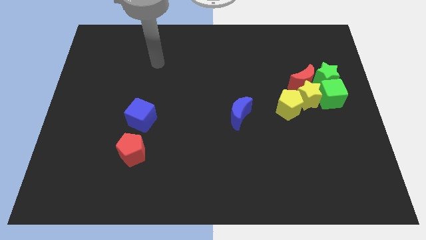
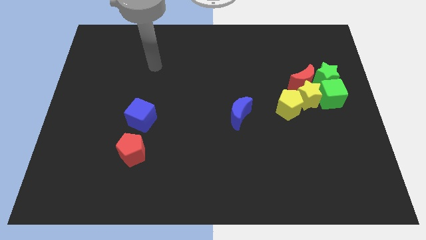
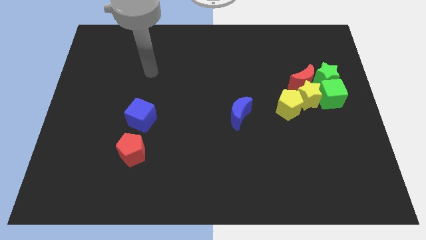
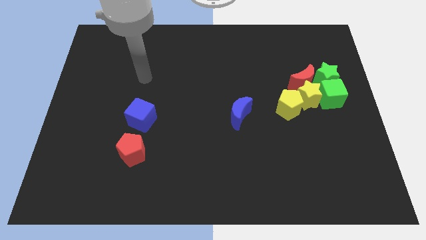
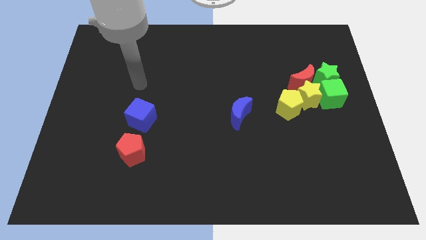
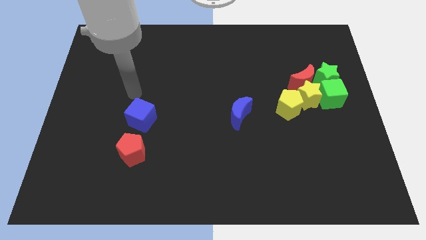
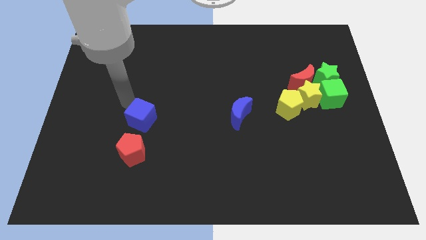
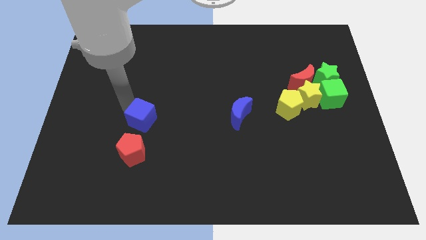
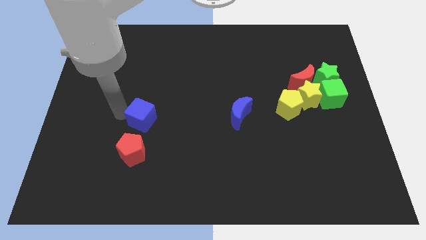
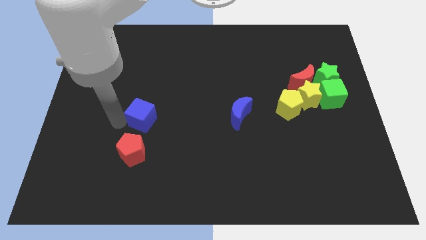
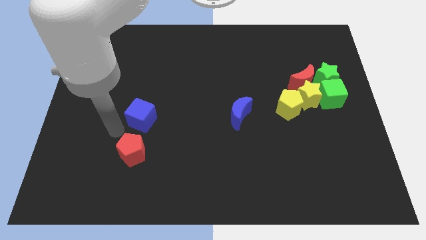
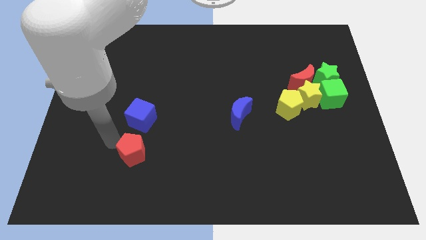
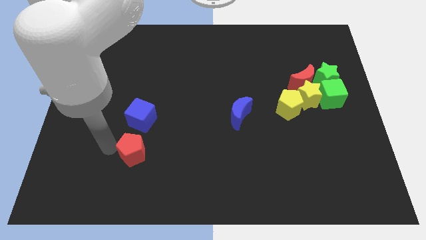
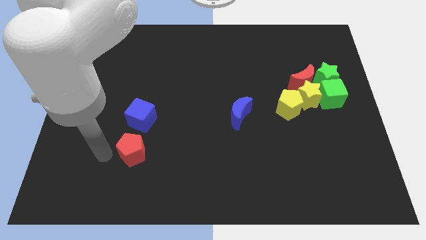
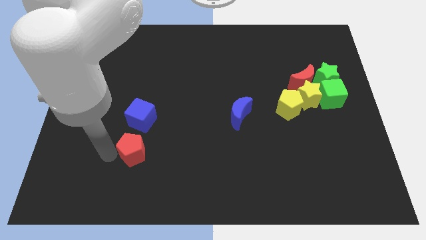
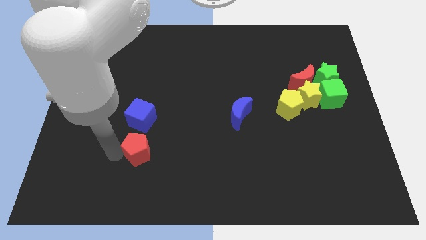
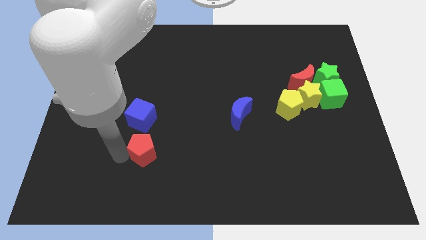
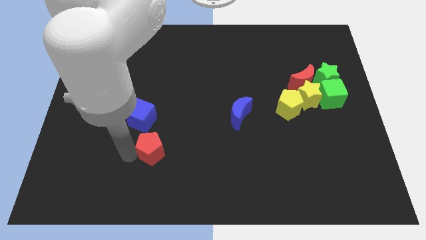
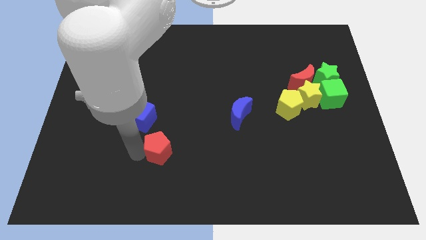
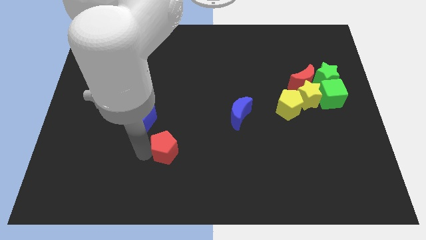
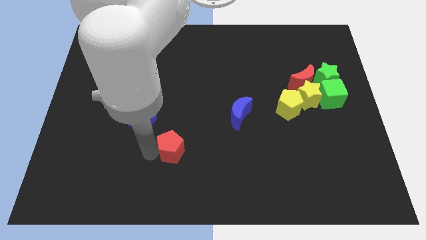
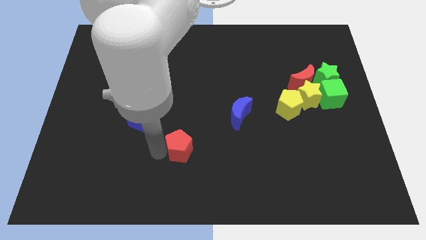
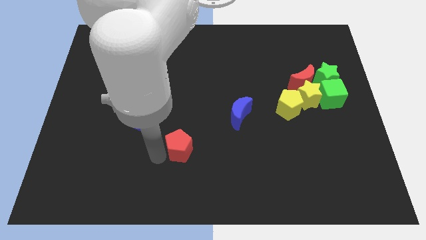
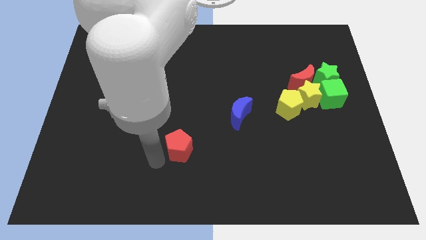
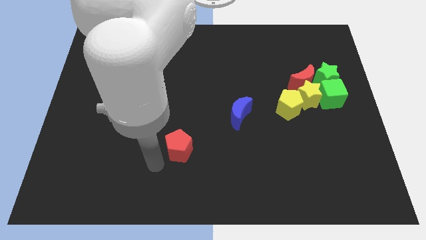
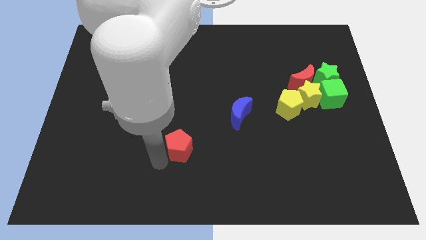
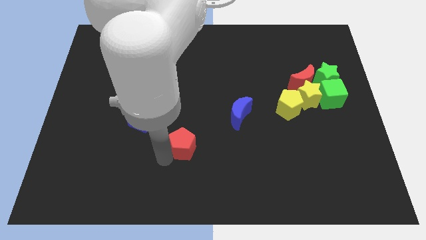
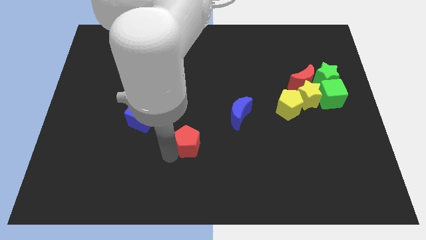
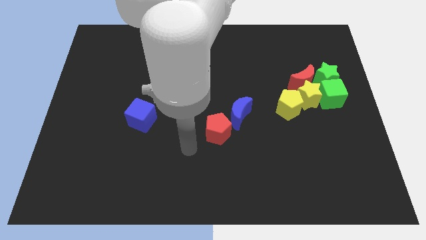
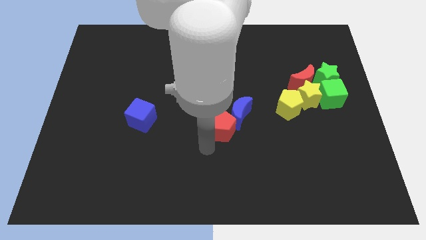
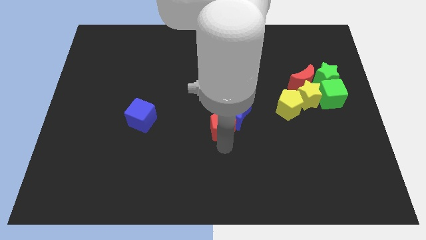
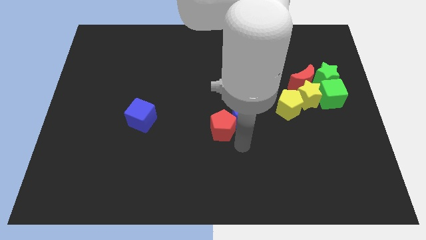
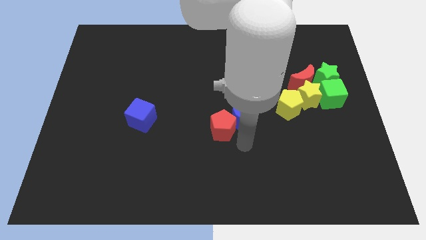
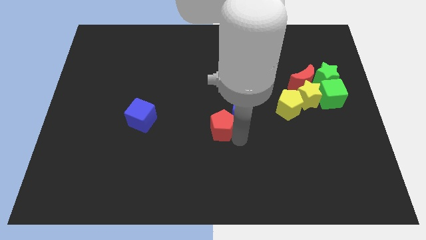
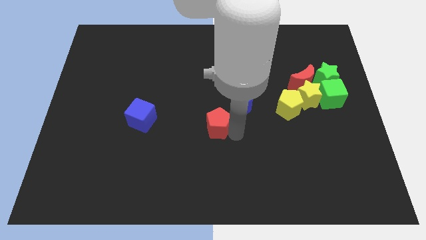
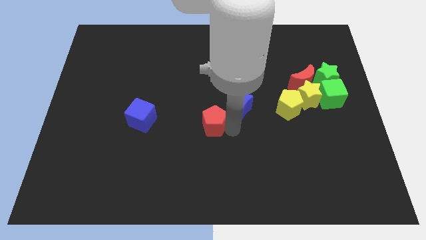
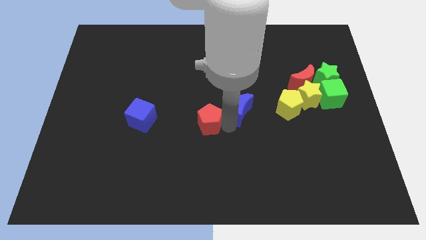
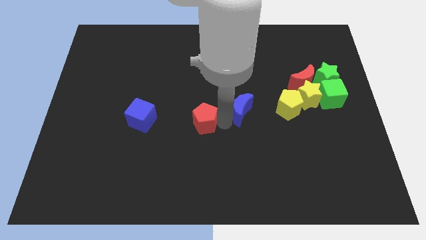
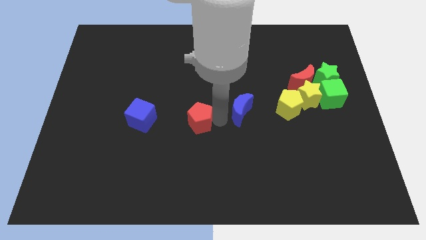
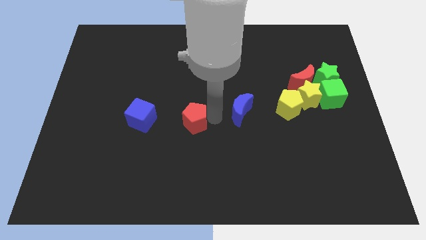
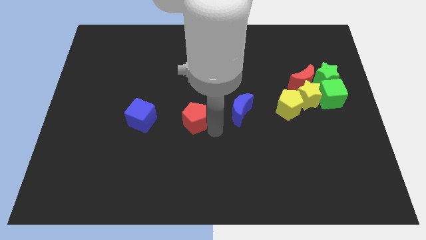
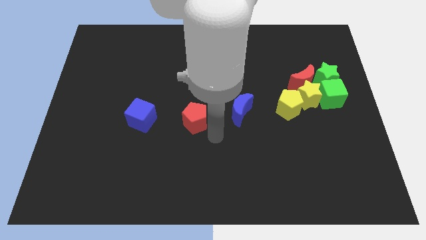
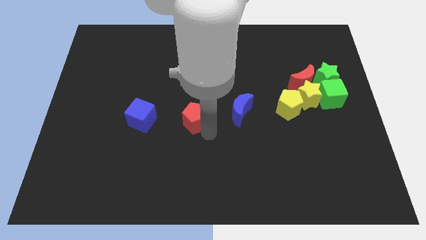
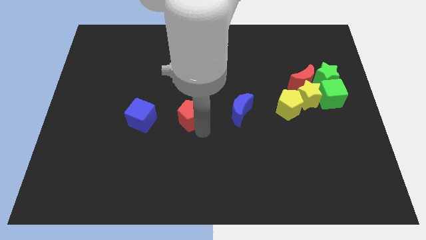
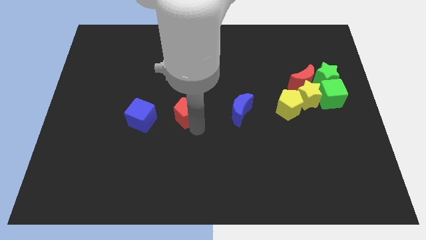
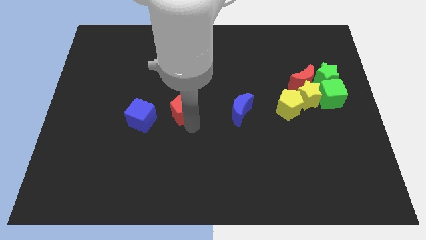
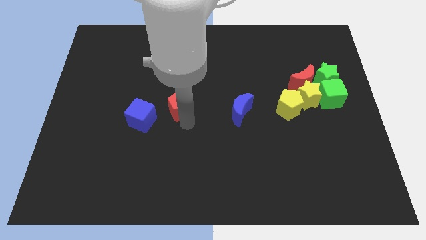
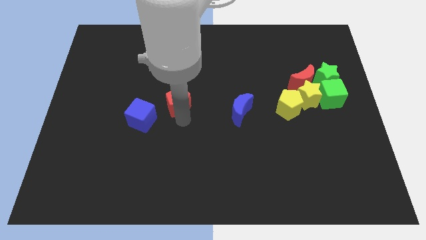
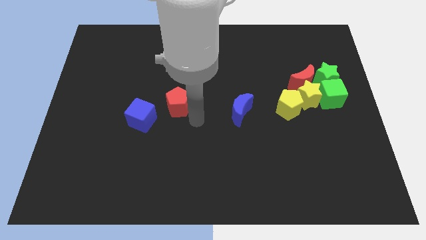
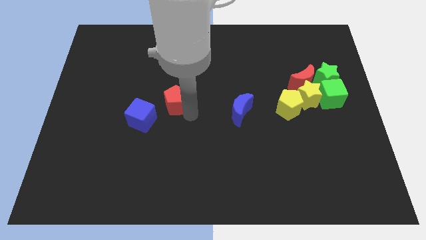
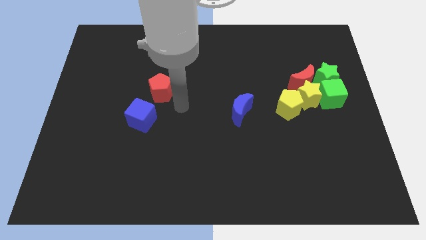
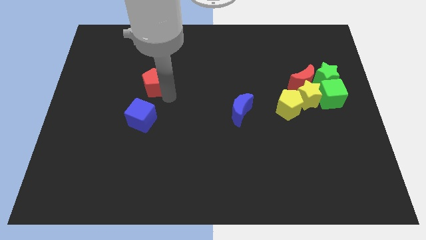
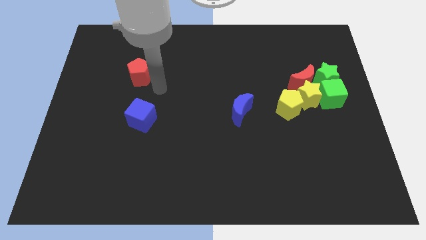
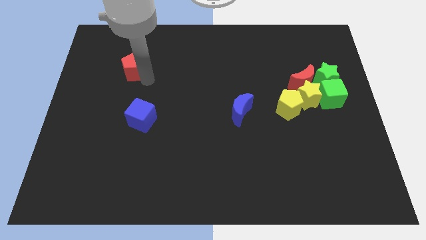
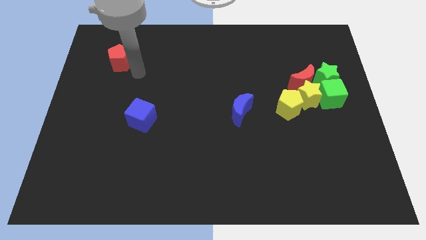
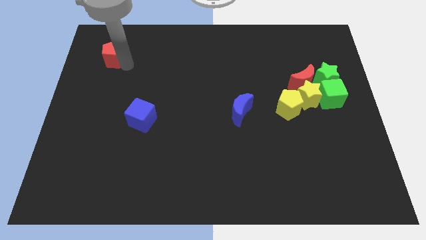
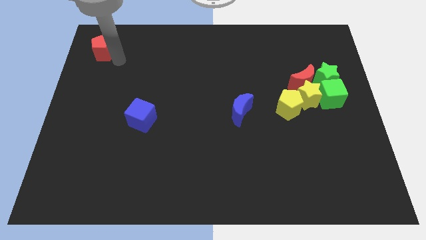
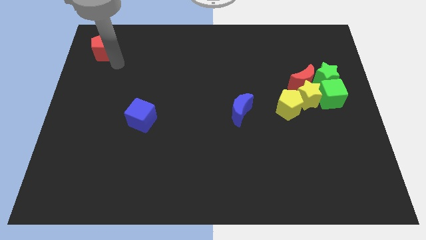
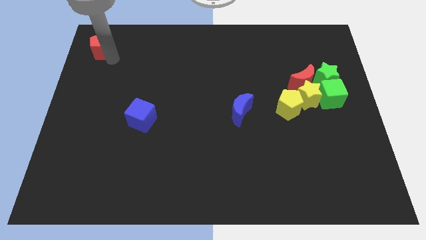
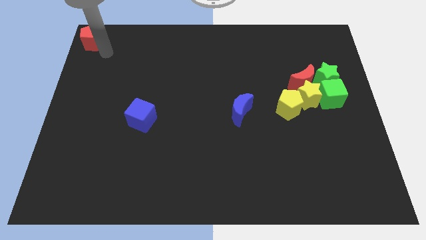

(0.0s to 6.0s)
put the red pentagon to the top left corner

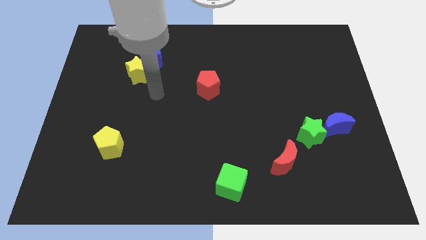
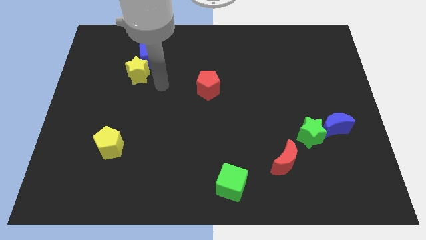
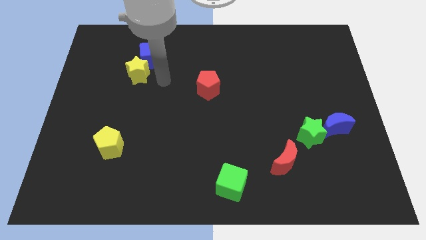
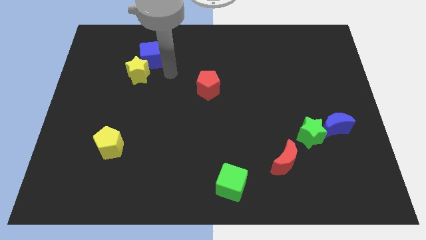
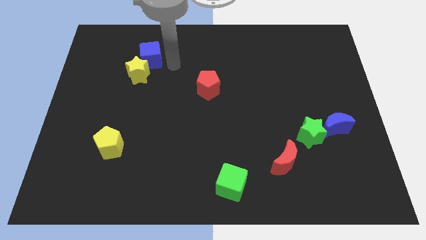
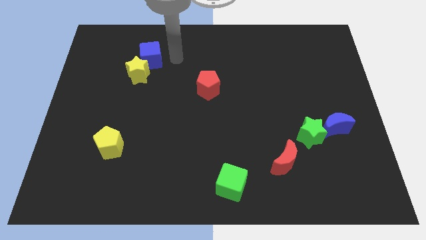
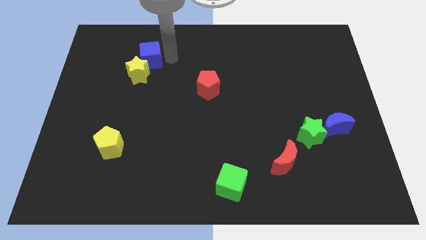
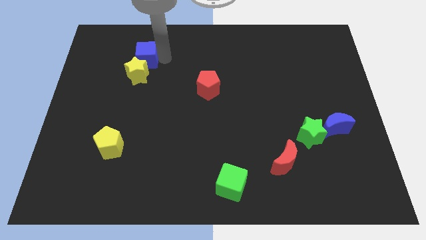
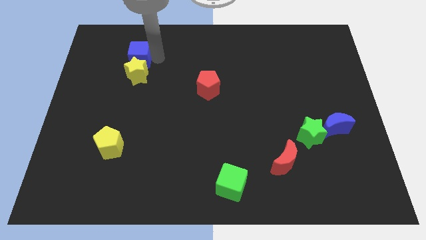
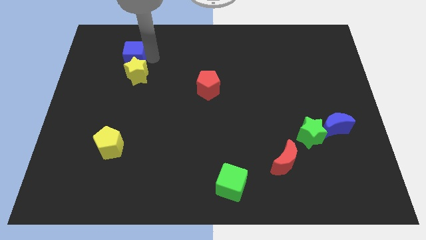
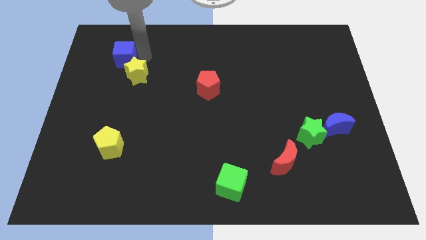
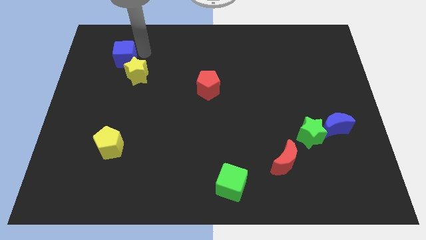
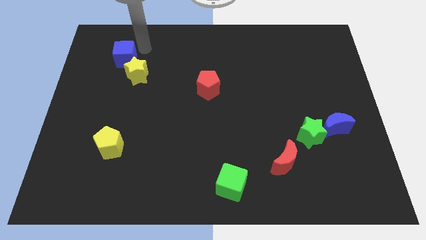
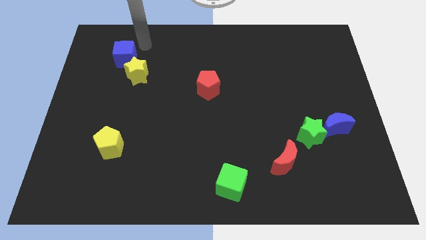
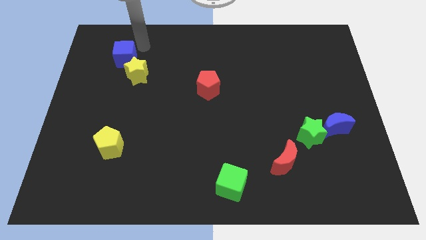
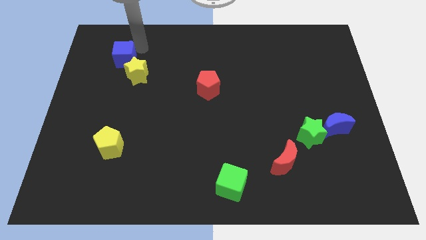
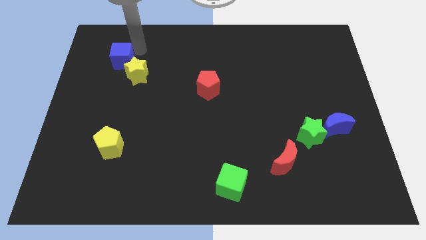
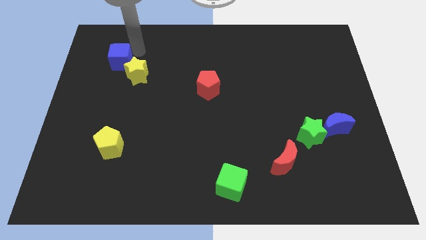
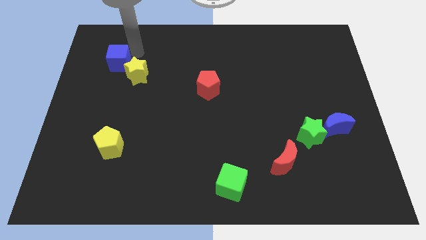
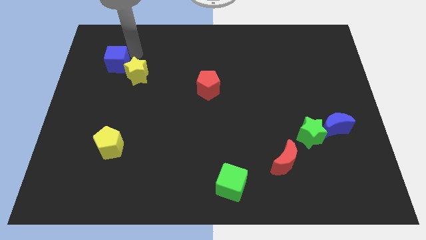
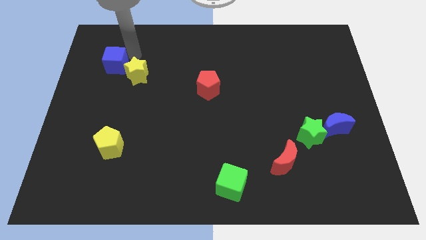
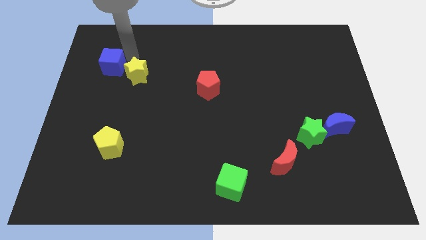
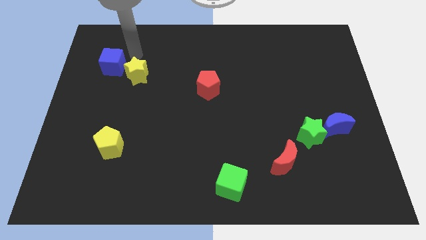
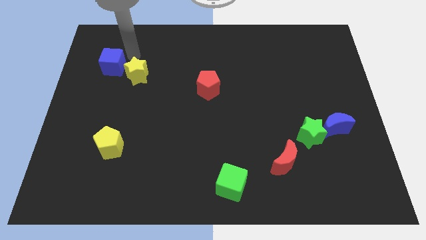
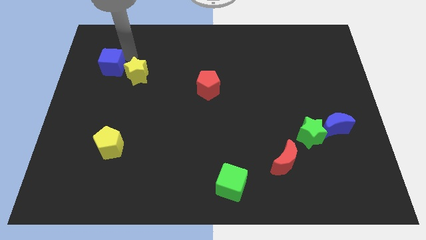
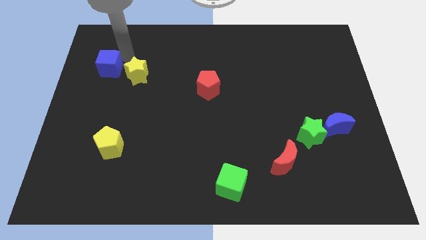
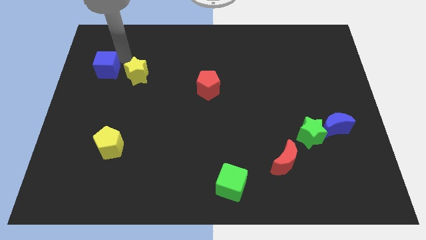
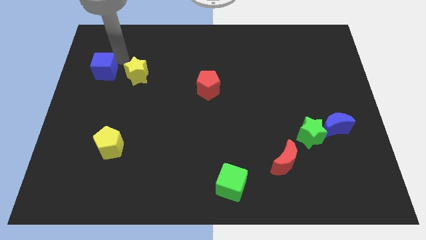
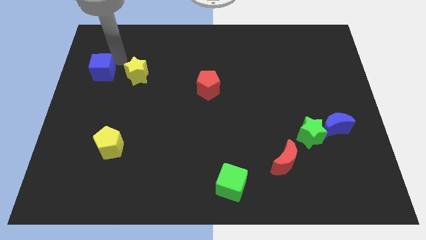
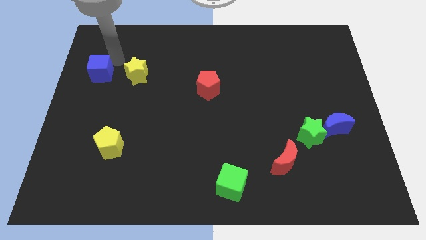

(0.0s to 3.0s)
put the blue cube to the center left
